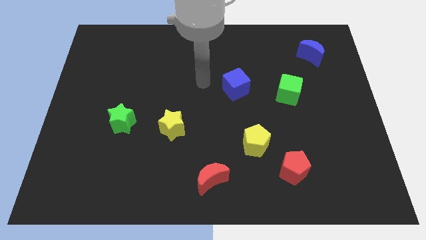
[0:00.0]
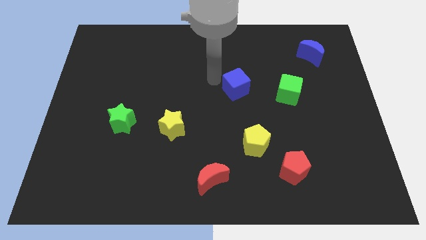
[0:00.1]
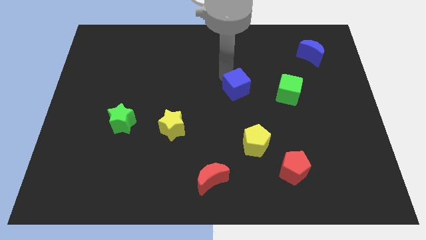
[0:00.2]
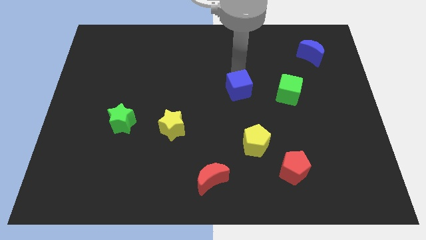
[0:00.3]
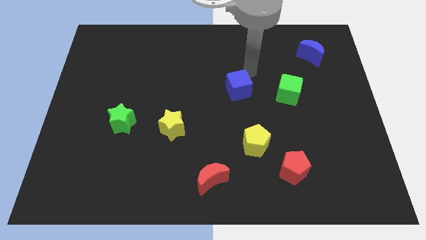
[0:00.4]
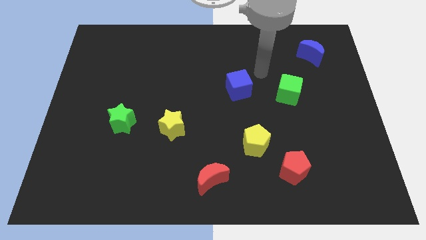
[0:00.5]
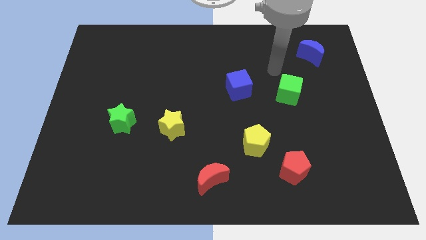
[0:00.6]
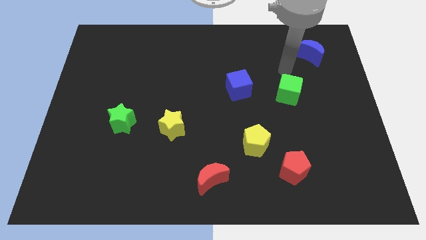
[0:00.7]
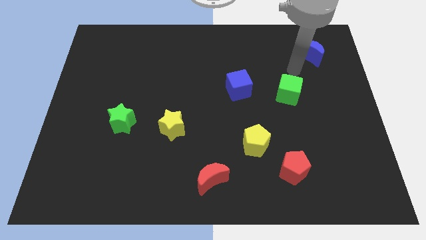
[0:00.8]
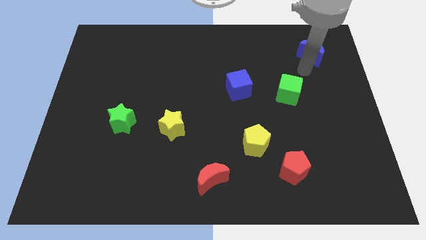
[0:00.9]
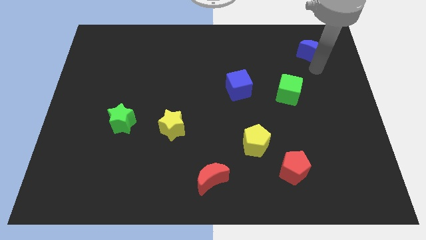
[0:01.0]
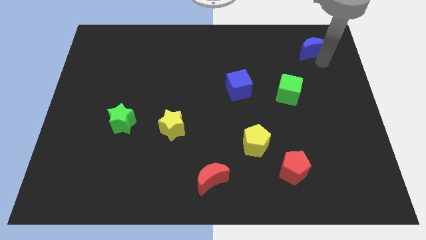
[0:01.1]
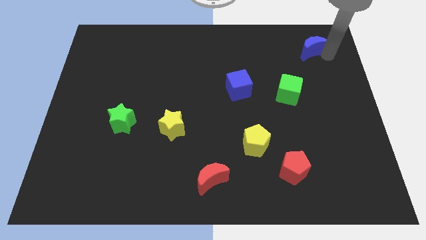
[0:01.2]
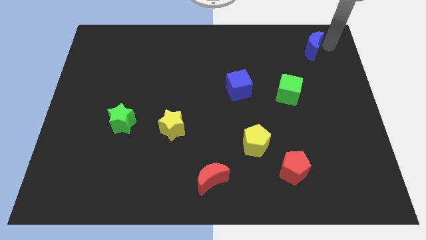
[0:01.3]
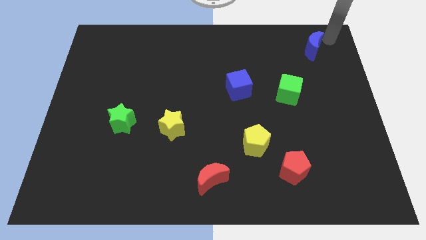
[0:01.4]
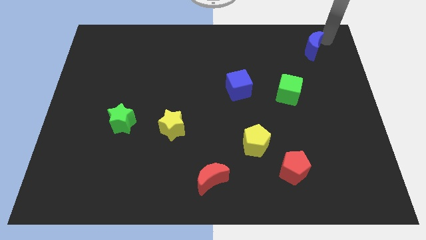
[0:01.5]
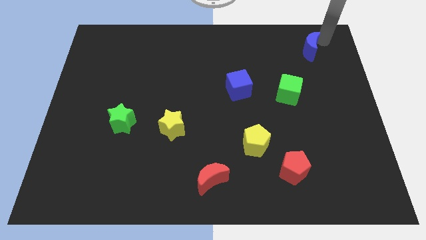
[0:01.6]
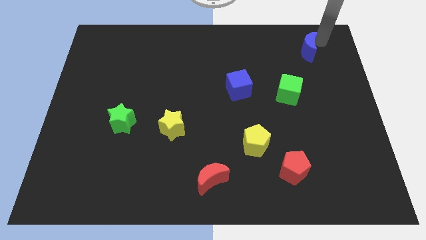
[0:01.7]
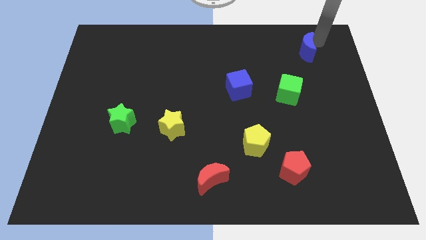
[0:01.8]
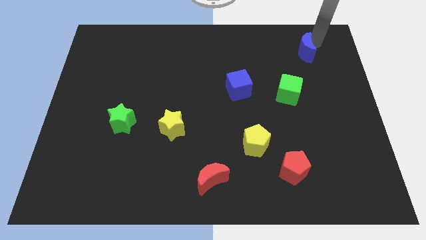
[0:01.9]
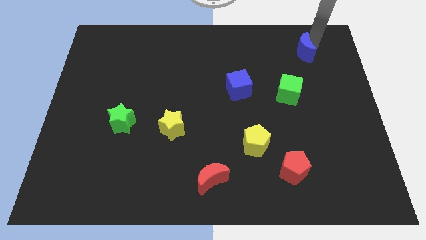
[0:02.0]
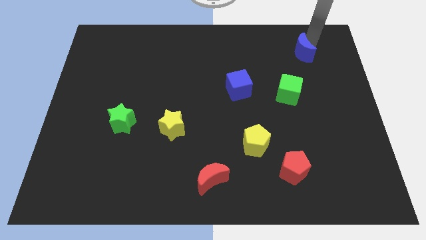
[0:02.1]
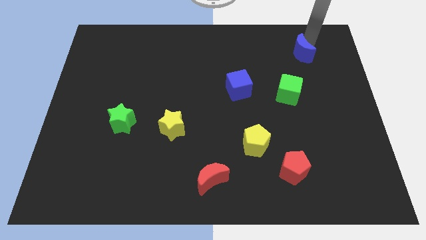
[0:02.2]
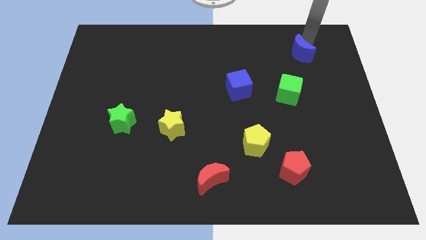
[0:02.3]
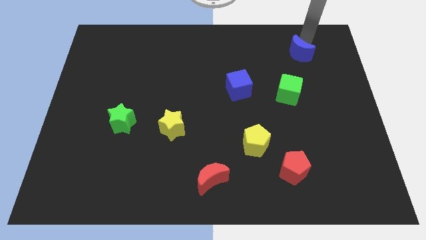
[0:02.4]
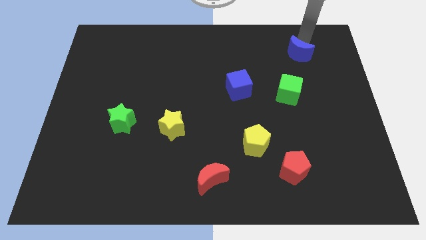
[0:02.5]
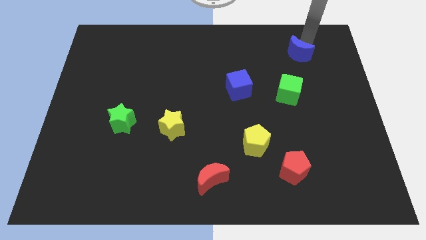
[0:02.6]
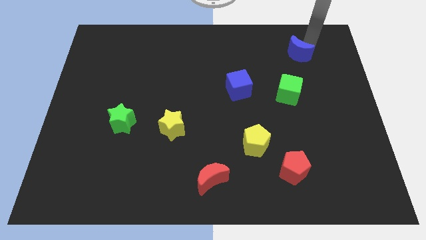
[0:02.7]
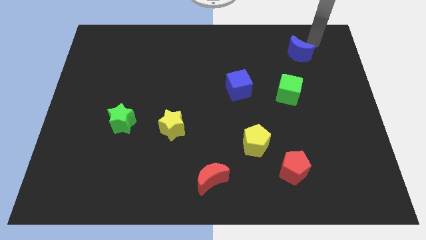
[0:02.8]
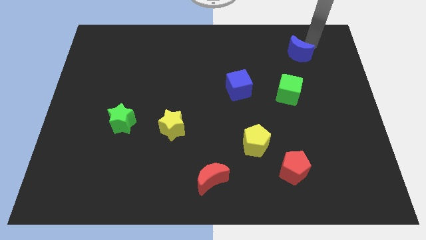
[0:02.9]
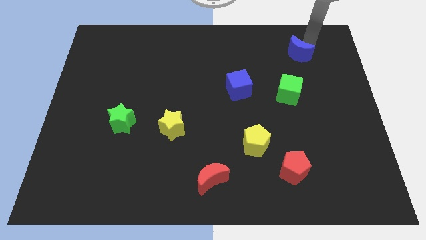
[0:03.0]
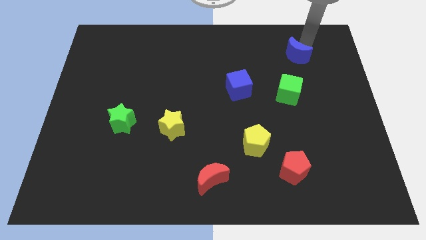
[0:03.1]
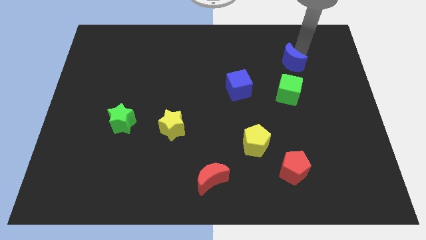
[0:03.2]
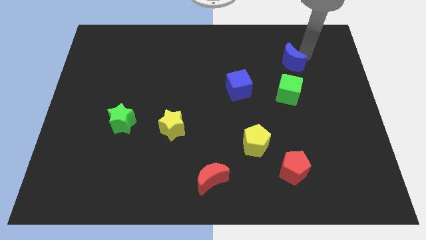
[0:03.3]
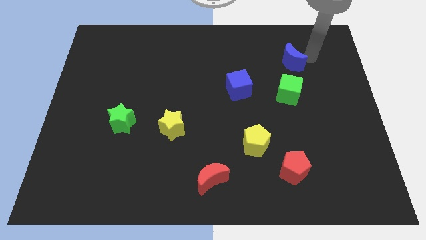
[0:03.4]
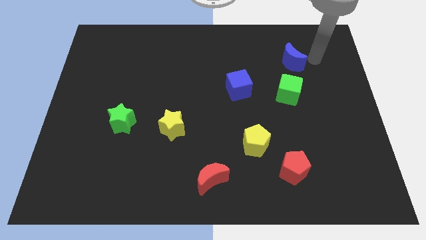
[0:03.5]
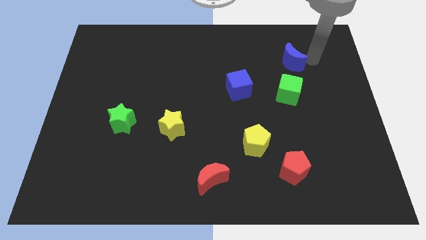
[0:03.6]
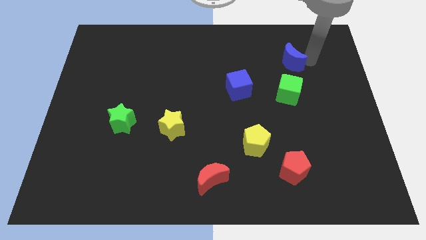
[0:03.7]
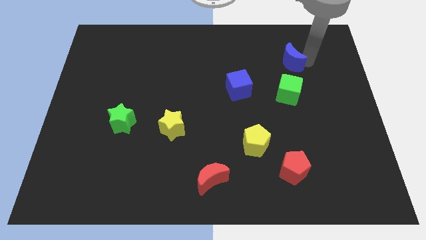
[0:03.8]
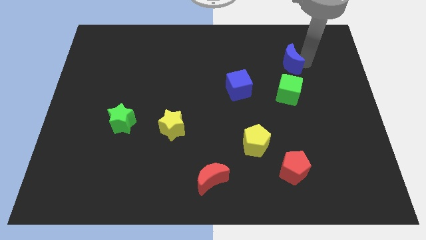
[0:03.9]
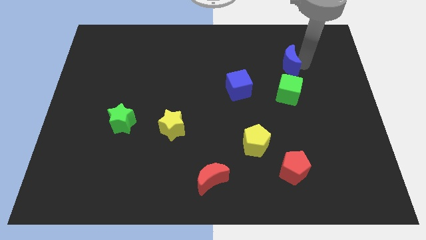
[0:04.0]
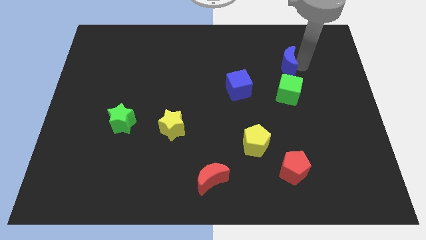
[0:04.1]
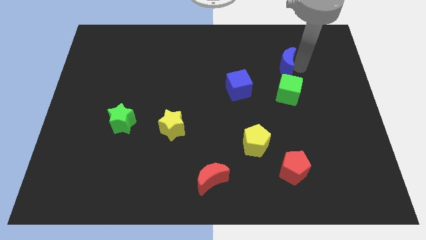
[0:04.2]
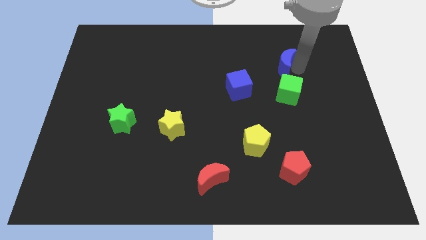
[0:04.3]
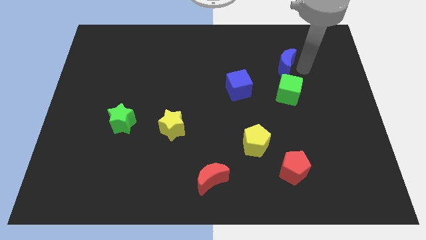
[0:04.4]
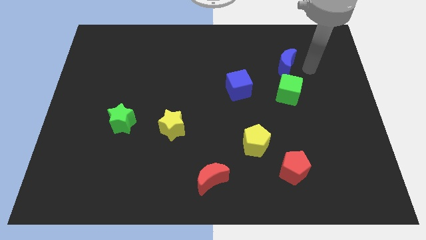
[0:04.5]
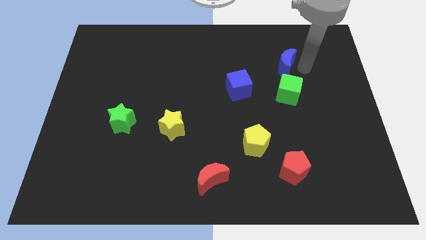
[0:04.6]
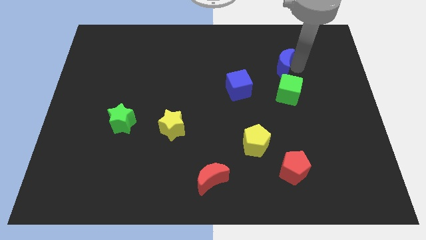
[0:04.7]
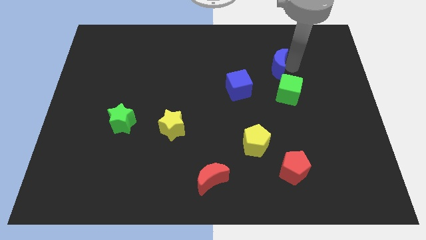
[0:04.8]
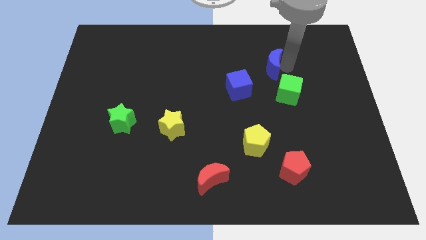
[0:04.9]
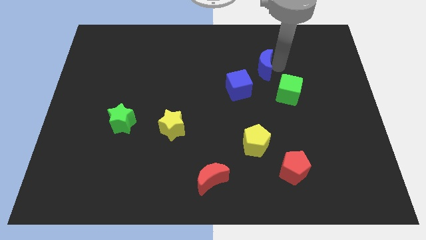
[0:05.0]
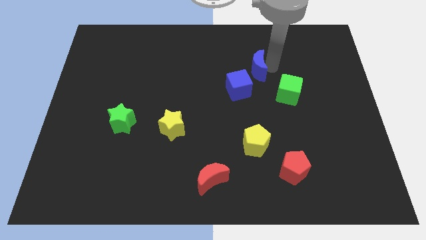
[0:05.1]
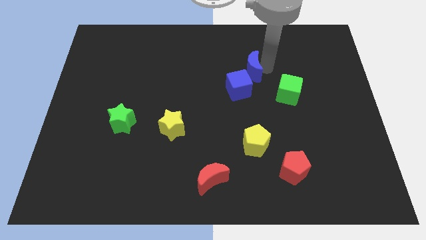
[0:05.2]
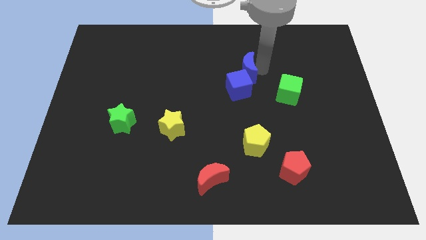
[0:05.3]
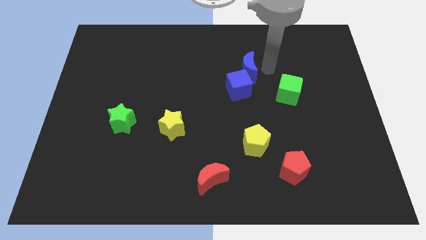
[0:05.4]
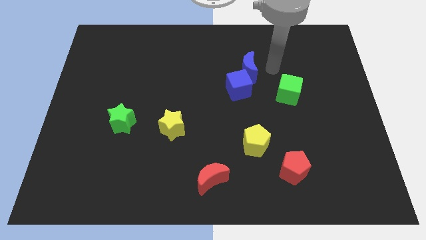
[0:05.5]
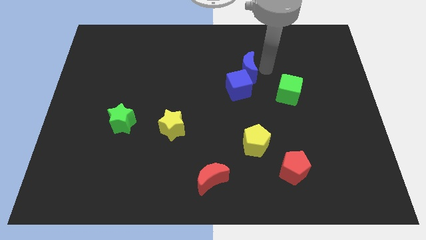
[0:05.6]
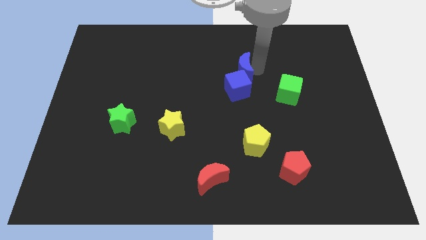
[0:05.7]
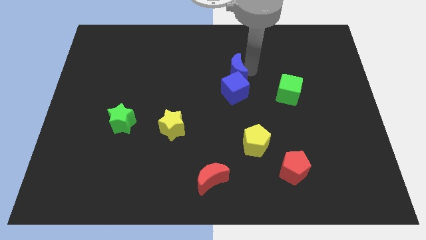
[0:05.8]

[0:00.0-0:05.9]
put the blue moon to the top left side of the blue cube

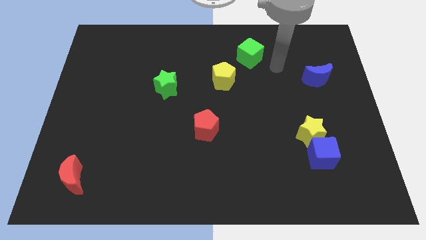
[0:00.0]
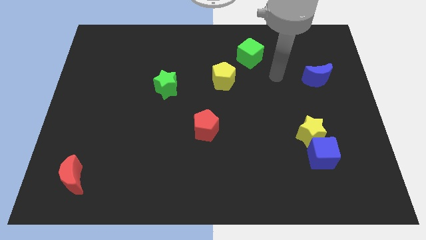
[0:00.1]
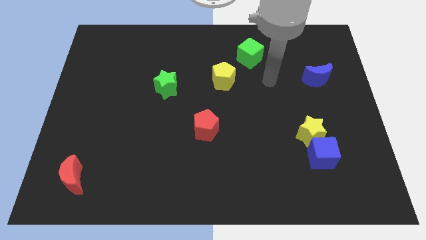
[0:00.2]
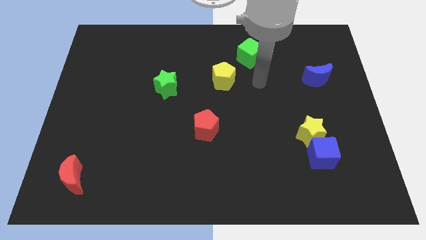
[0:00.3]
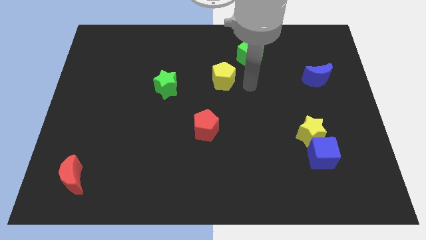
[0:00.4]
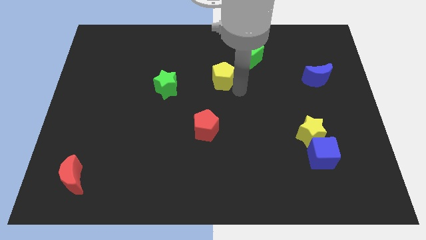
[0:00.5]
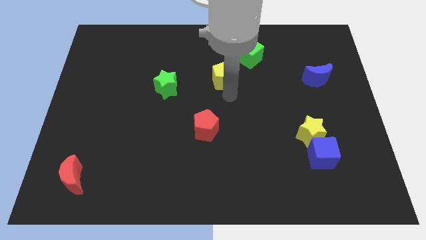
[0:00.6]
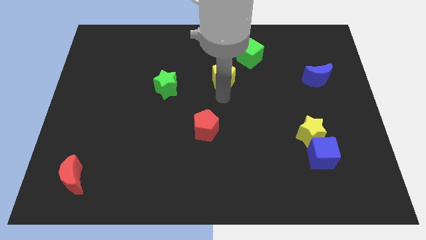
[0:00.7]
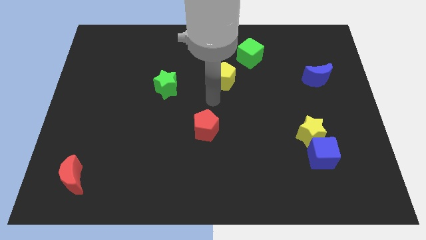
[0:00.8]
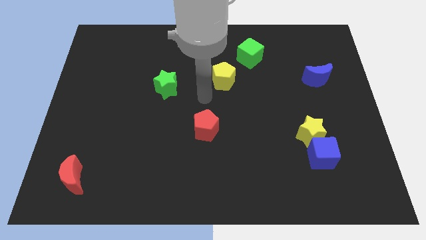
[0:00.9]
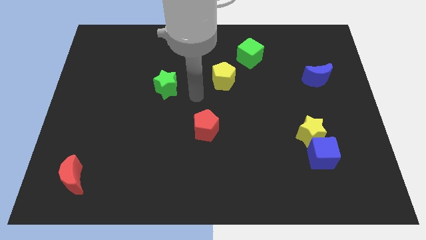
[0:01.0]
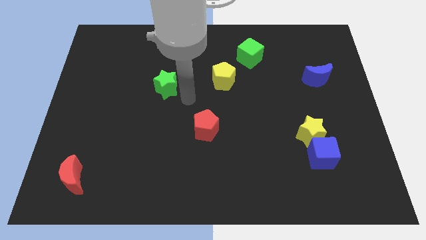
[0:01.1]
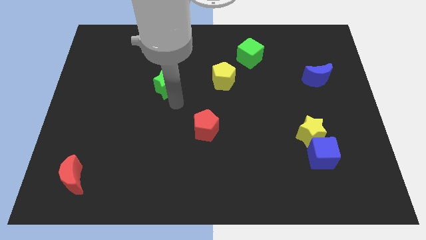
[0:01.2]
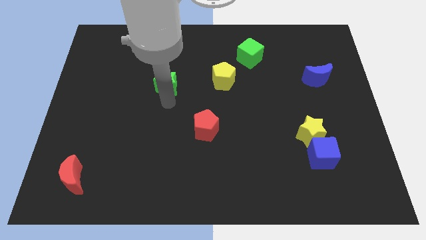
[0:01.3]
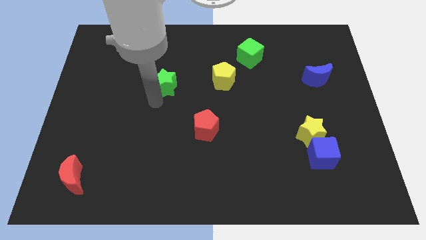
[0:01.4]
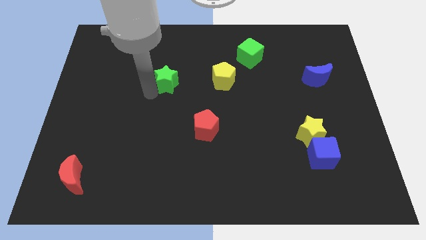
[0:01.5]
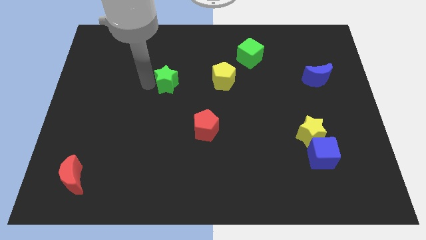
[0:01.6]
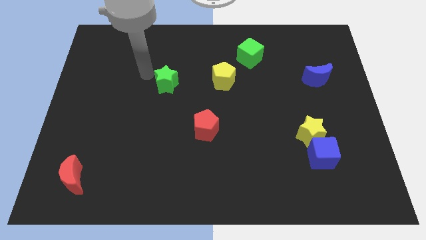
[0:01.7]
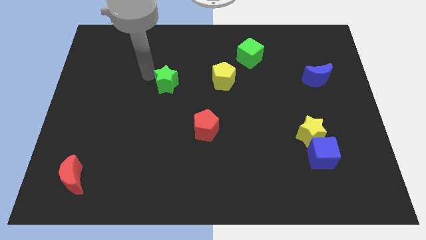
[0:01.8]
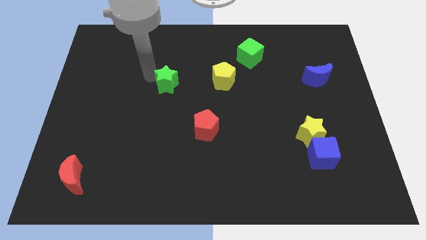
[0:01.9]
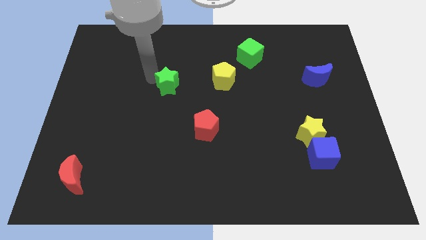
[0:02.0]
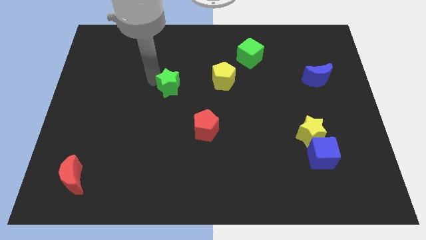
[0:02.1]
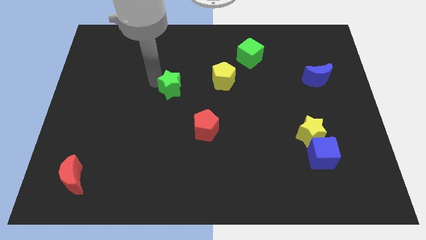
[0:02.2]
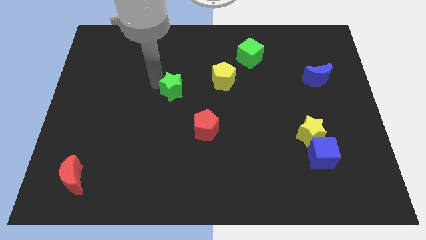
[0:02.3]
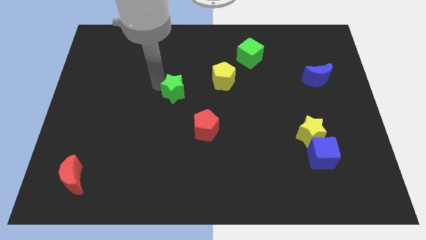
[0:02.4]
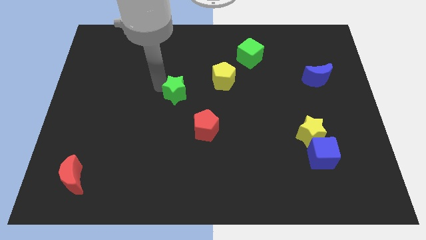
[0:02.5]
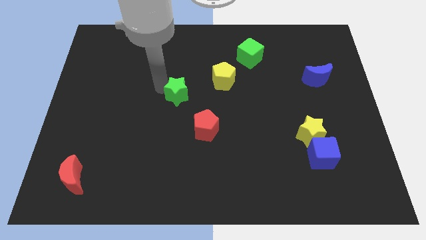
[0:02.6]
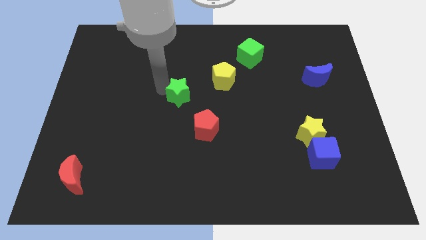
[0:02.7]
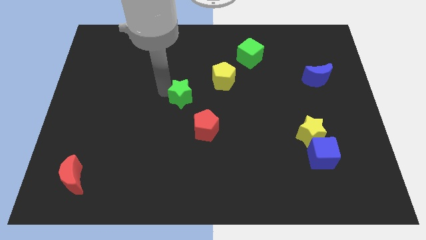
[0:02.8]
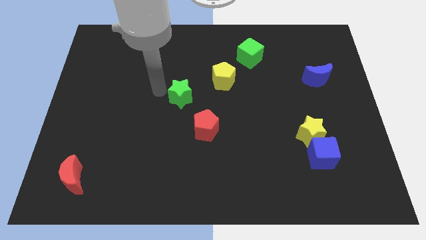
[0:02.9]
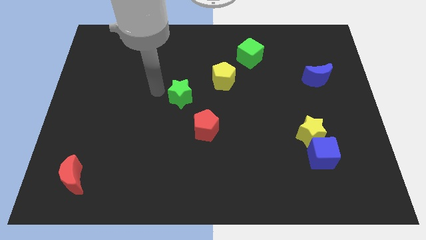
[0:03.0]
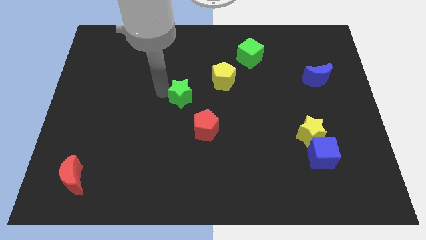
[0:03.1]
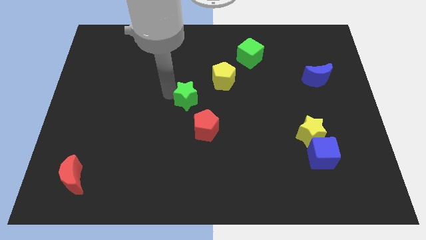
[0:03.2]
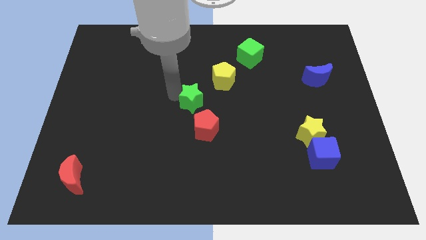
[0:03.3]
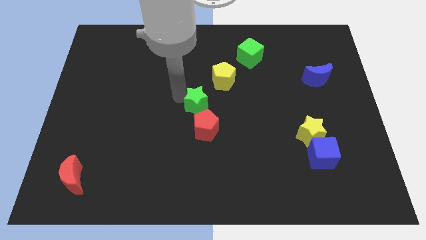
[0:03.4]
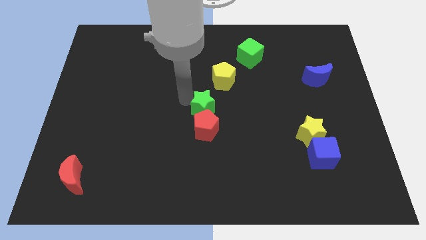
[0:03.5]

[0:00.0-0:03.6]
put the green star diagonally up and to the right of the red pentagon
